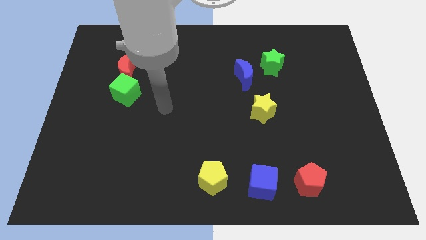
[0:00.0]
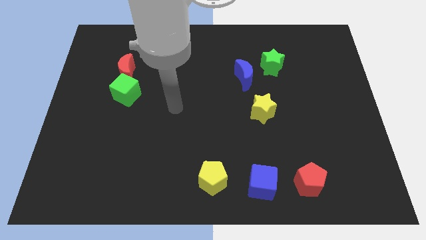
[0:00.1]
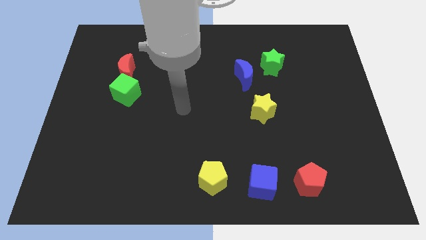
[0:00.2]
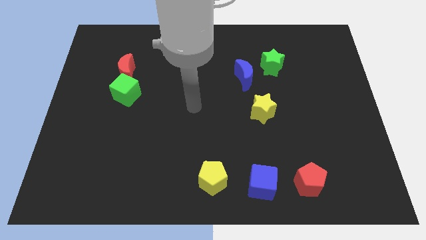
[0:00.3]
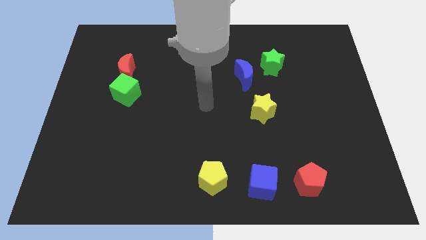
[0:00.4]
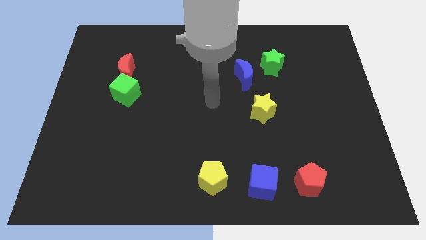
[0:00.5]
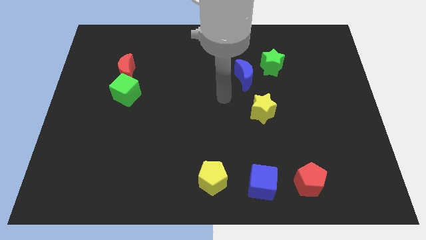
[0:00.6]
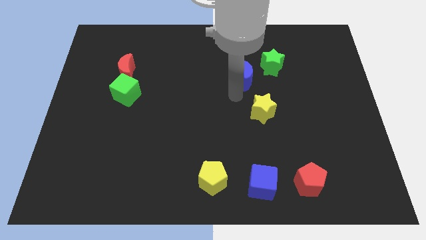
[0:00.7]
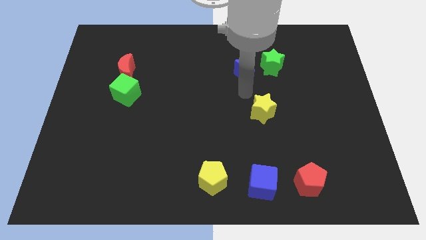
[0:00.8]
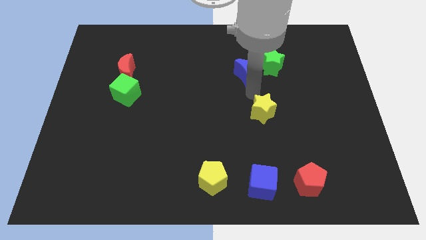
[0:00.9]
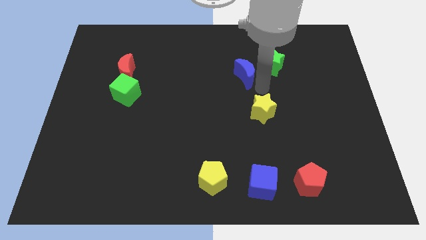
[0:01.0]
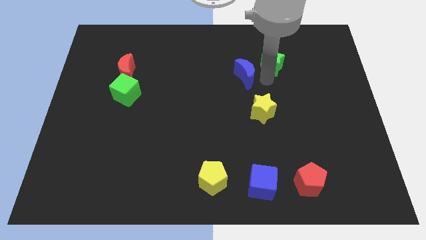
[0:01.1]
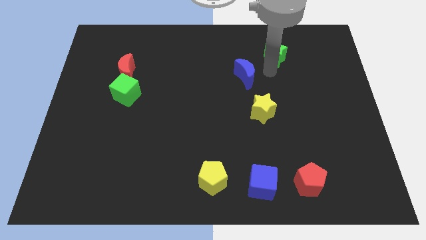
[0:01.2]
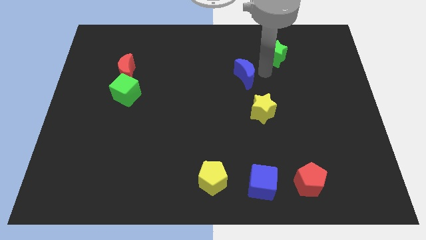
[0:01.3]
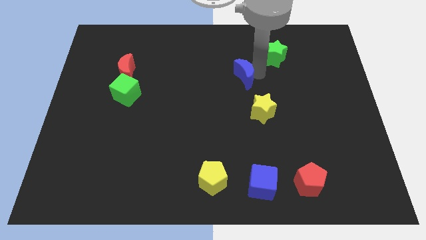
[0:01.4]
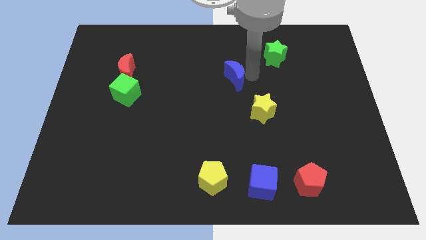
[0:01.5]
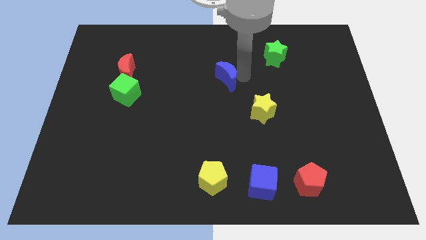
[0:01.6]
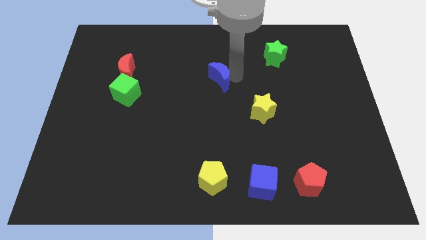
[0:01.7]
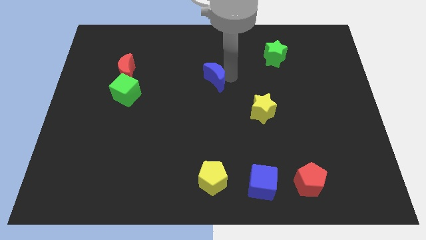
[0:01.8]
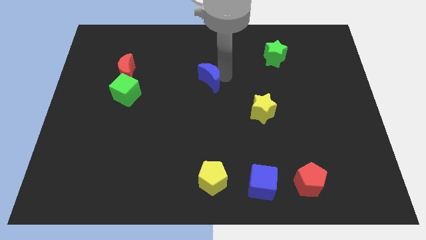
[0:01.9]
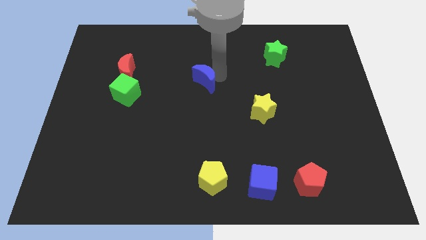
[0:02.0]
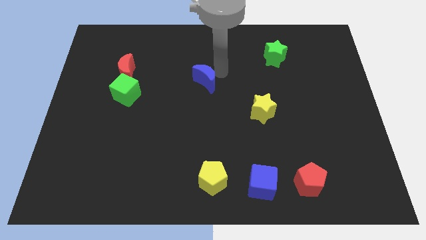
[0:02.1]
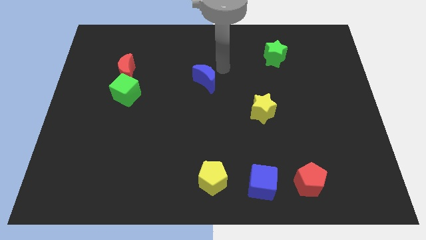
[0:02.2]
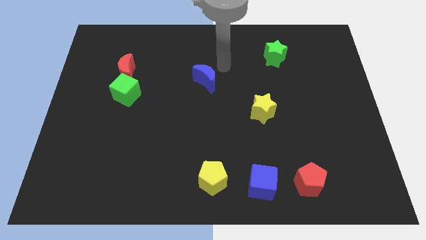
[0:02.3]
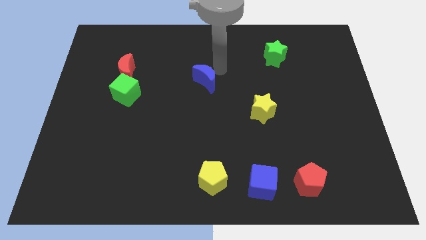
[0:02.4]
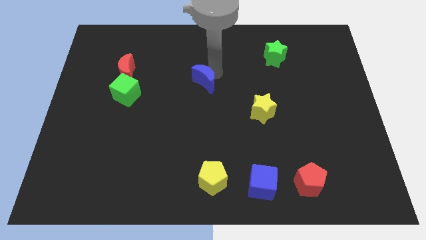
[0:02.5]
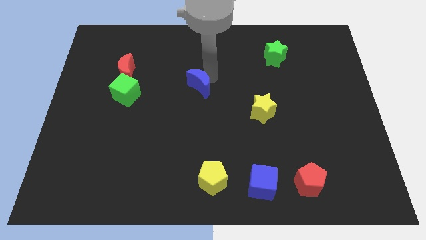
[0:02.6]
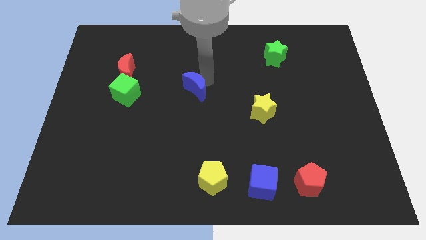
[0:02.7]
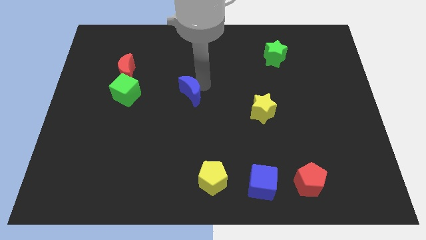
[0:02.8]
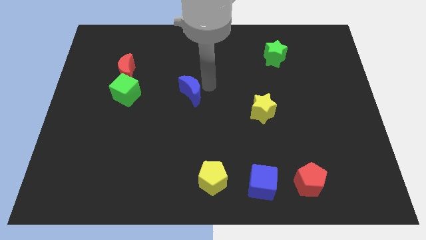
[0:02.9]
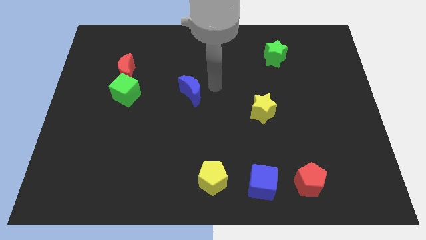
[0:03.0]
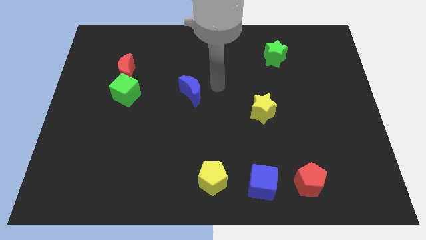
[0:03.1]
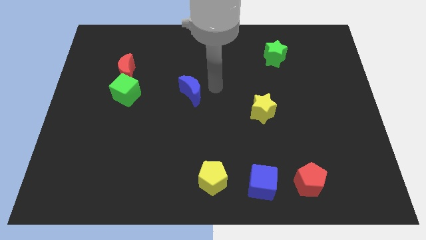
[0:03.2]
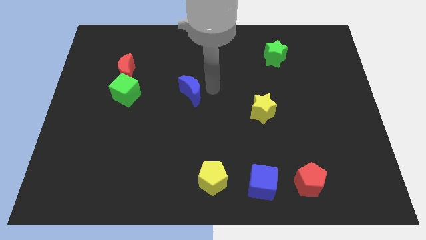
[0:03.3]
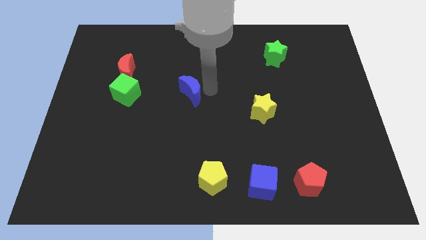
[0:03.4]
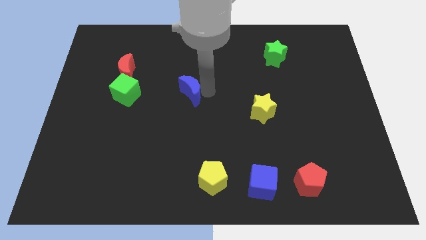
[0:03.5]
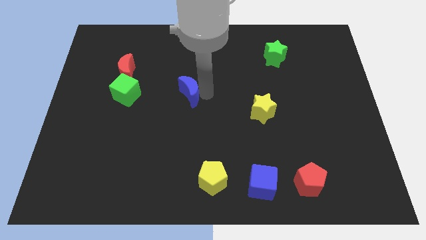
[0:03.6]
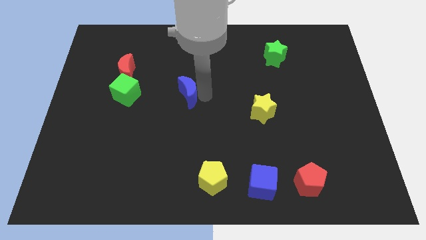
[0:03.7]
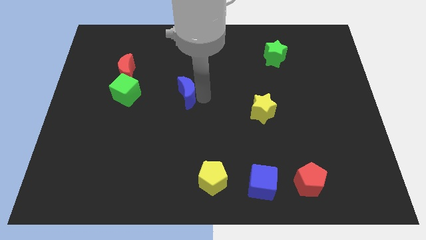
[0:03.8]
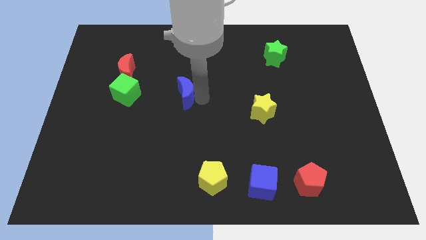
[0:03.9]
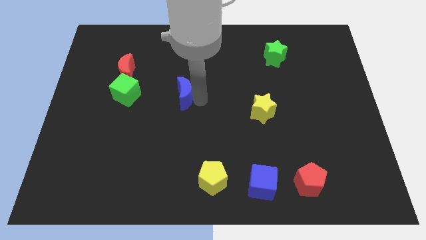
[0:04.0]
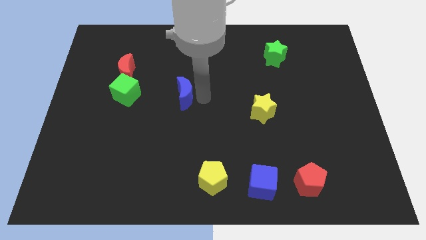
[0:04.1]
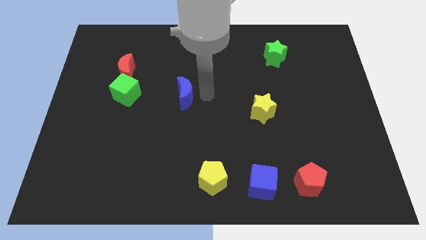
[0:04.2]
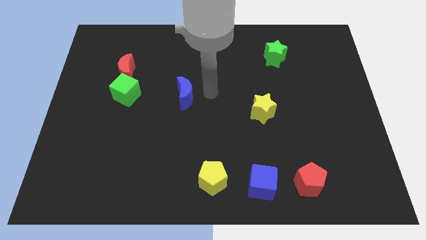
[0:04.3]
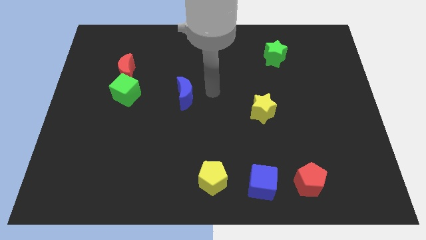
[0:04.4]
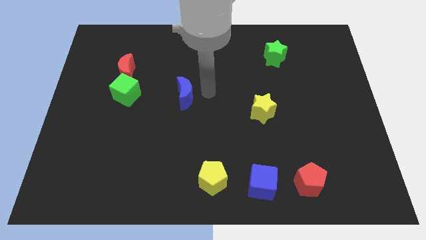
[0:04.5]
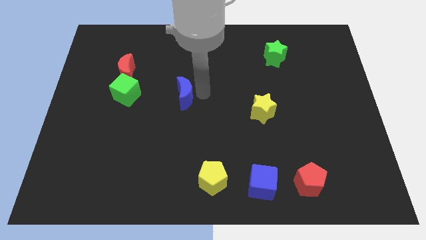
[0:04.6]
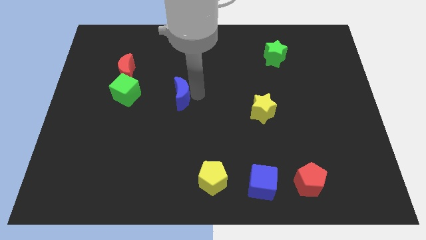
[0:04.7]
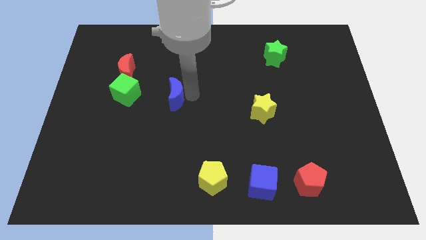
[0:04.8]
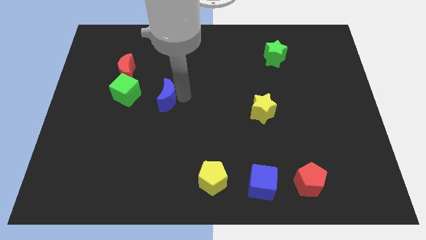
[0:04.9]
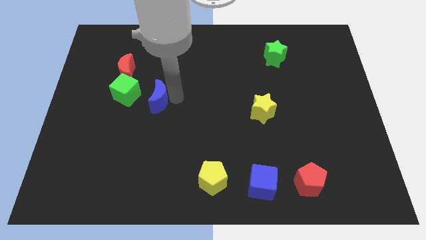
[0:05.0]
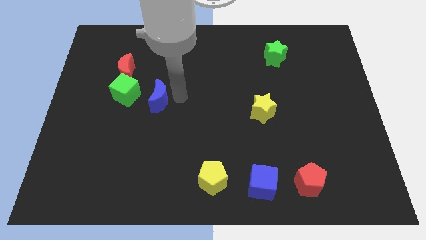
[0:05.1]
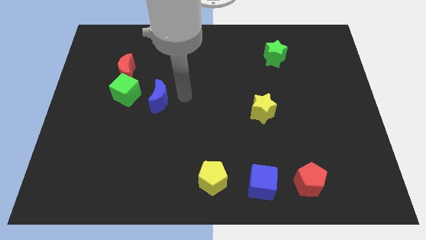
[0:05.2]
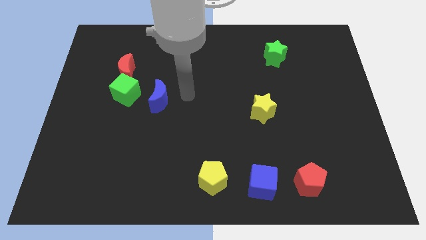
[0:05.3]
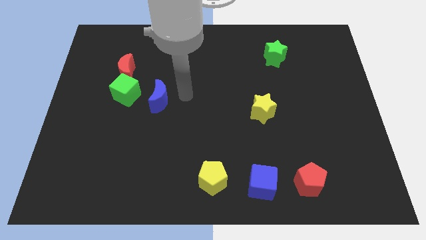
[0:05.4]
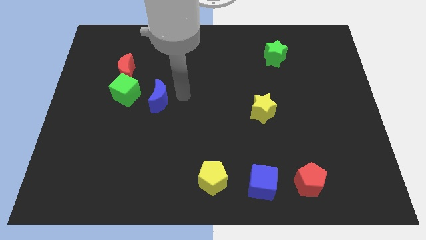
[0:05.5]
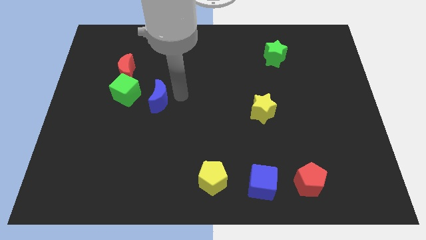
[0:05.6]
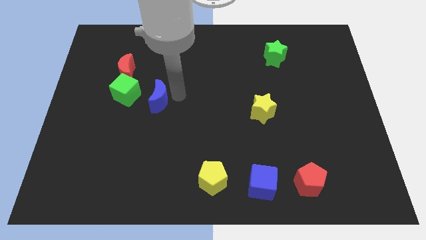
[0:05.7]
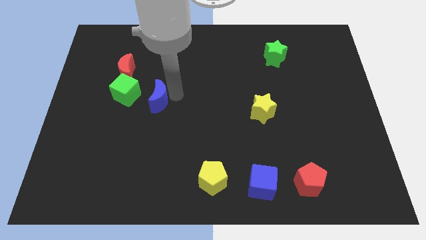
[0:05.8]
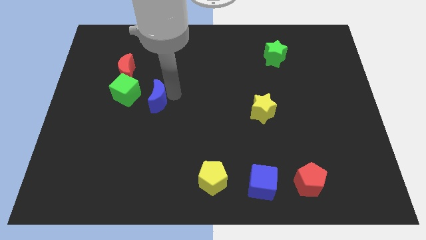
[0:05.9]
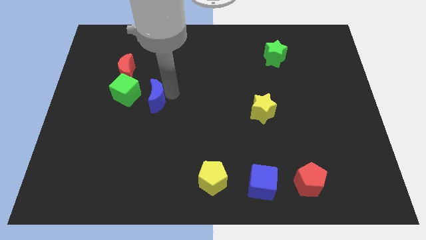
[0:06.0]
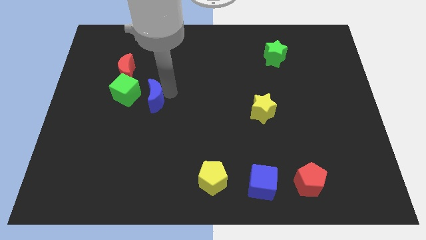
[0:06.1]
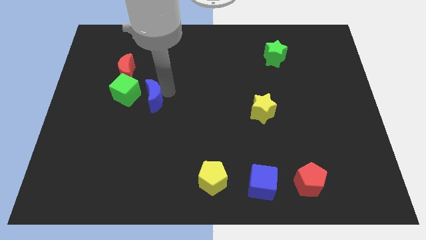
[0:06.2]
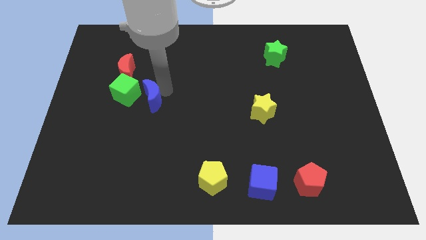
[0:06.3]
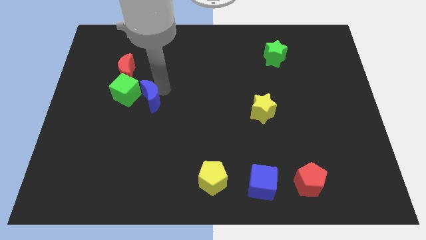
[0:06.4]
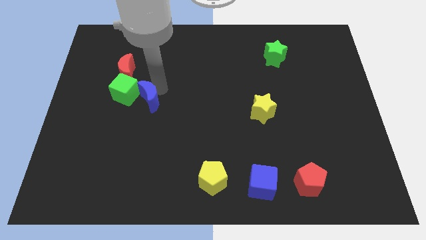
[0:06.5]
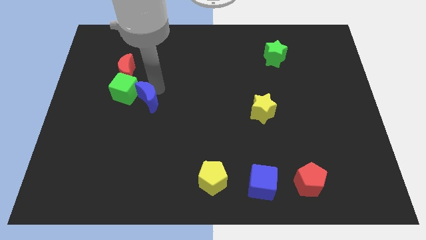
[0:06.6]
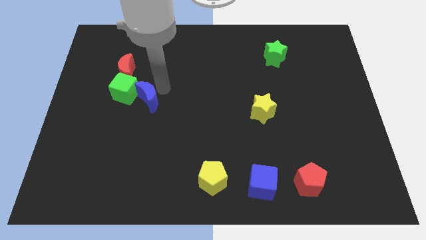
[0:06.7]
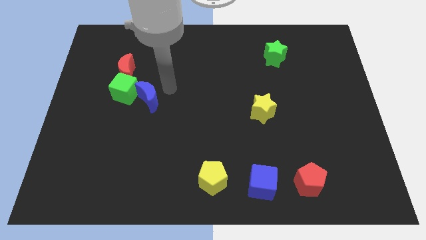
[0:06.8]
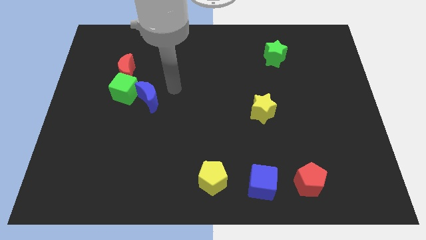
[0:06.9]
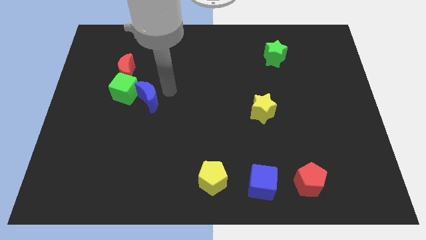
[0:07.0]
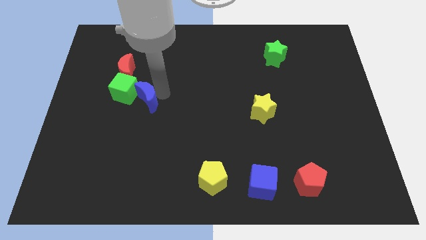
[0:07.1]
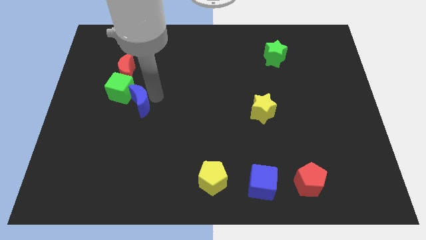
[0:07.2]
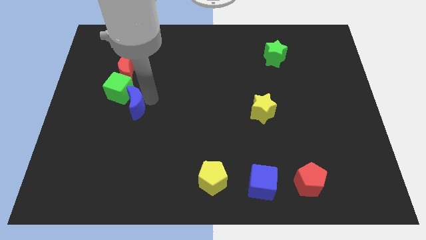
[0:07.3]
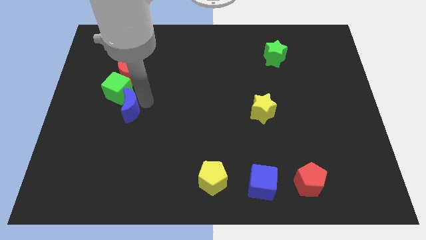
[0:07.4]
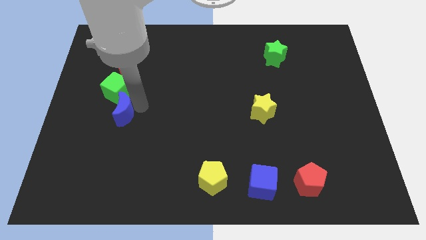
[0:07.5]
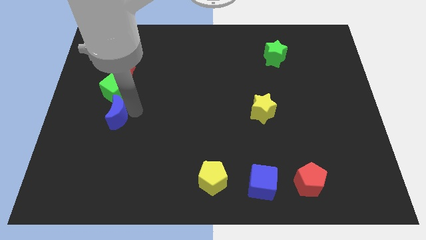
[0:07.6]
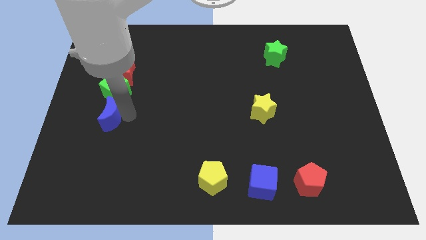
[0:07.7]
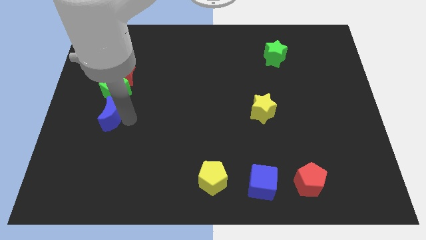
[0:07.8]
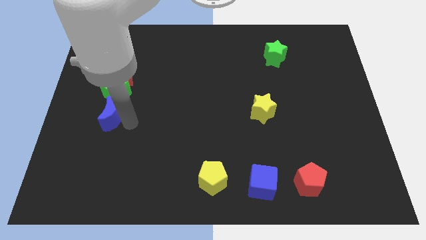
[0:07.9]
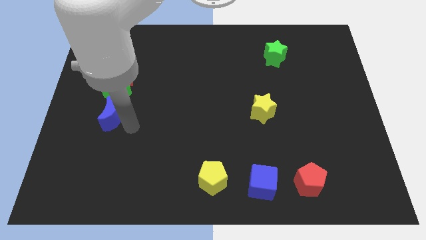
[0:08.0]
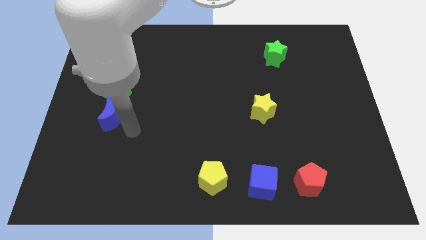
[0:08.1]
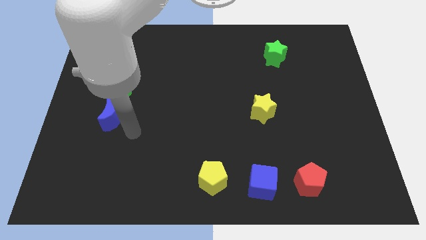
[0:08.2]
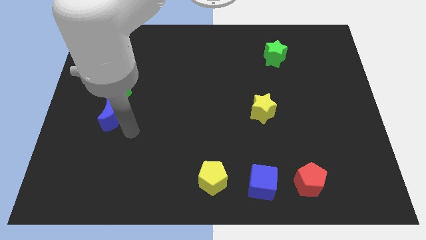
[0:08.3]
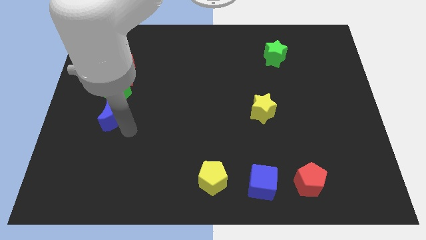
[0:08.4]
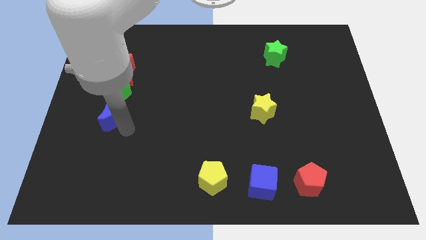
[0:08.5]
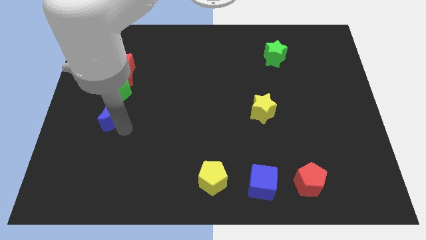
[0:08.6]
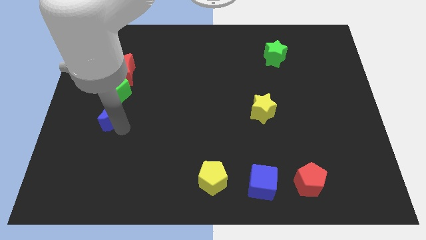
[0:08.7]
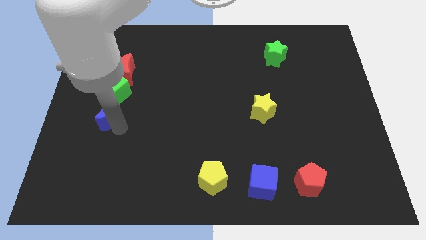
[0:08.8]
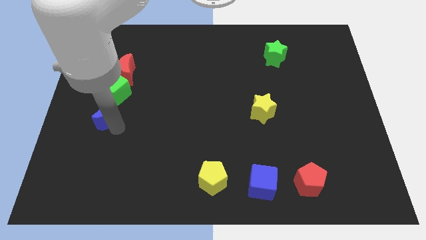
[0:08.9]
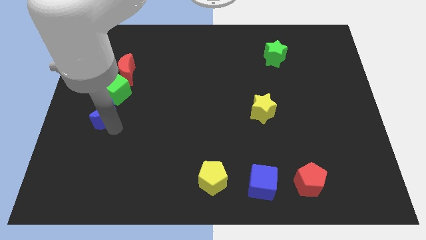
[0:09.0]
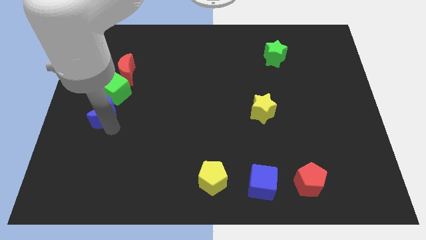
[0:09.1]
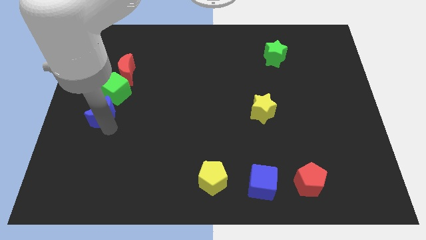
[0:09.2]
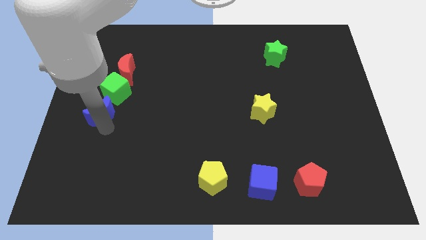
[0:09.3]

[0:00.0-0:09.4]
put the blue moon to the left side
